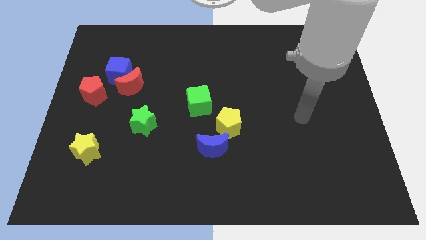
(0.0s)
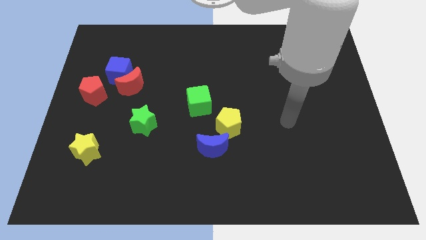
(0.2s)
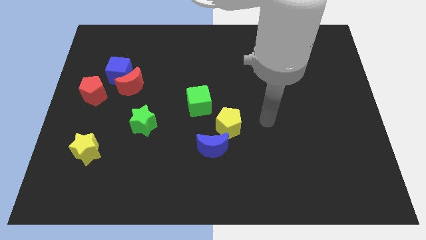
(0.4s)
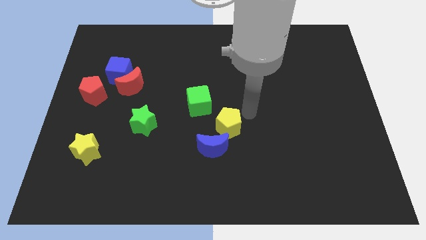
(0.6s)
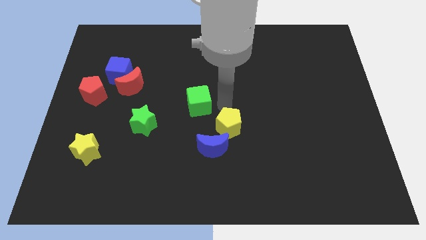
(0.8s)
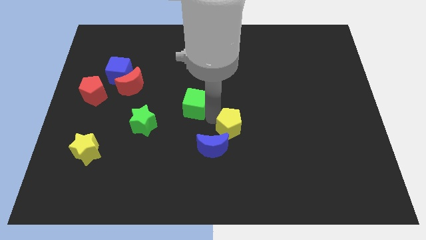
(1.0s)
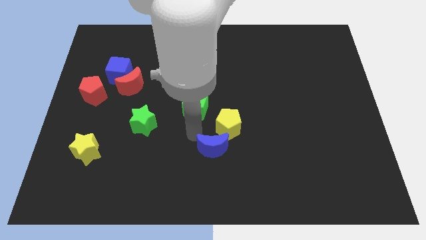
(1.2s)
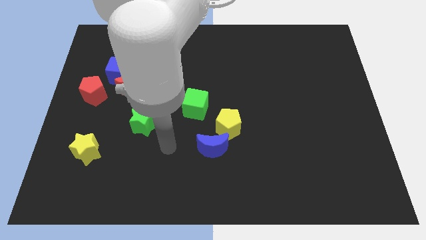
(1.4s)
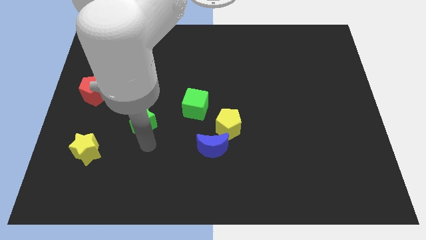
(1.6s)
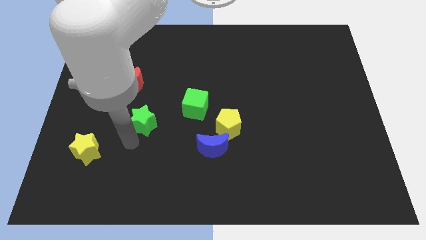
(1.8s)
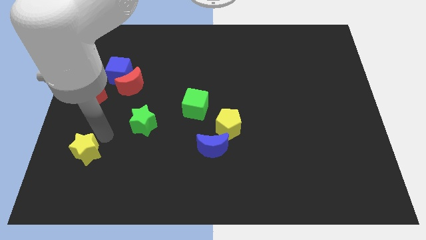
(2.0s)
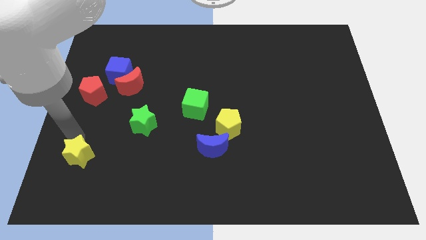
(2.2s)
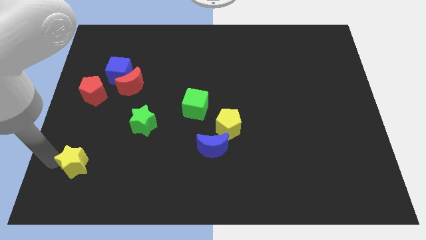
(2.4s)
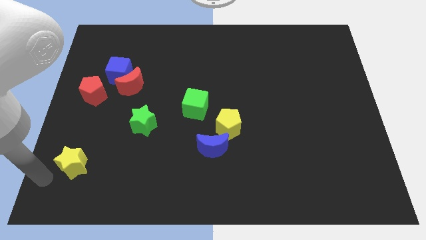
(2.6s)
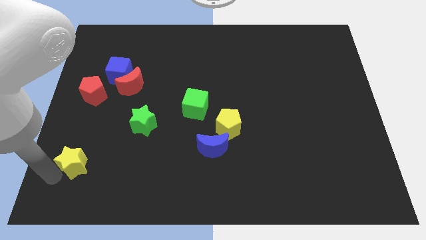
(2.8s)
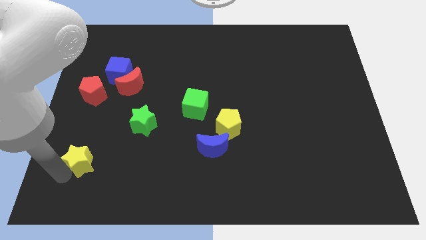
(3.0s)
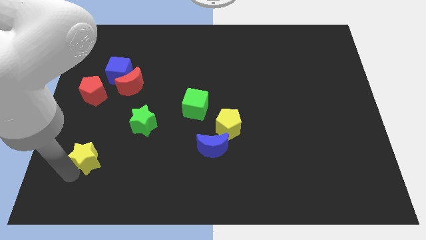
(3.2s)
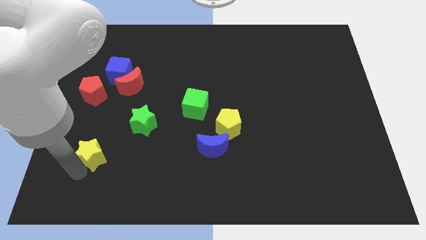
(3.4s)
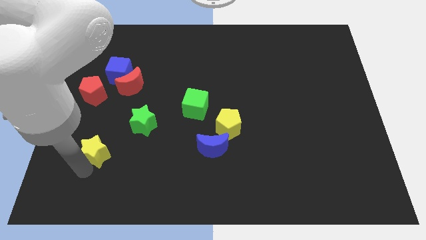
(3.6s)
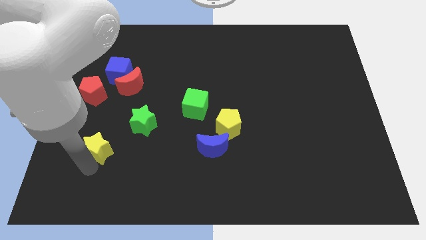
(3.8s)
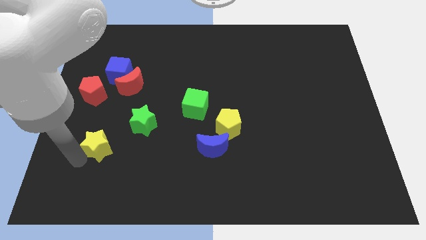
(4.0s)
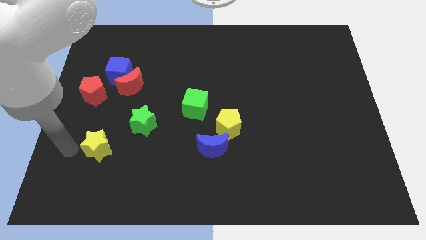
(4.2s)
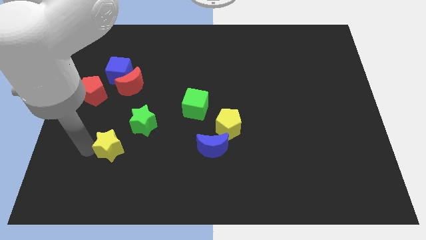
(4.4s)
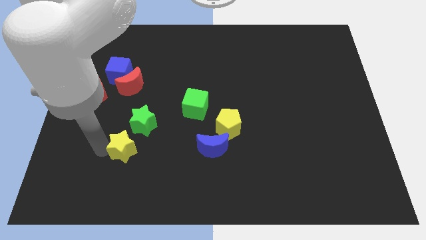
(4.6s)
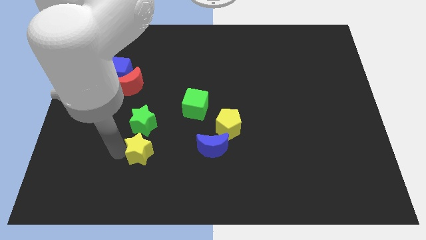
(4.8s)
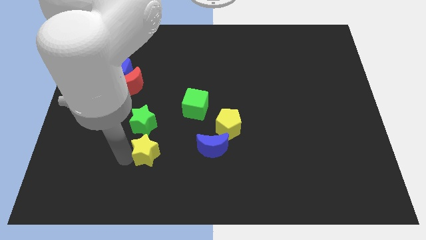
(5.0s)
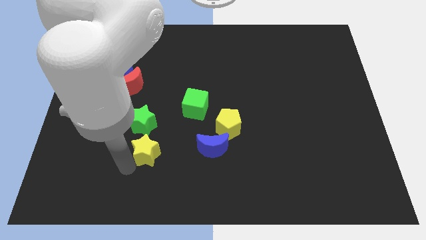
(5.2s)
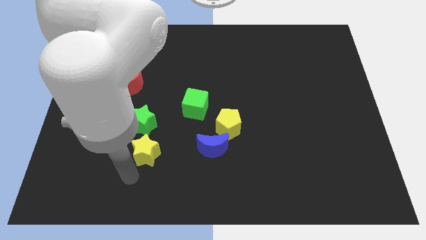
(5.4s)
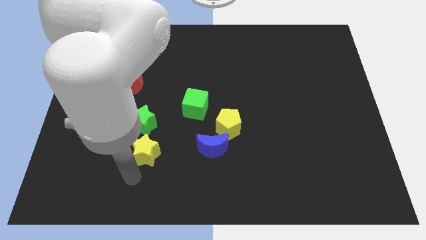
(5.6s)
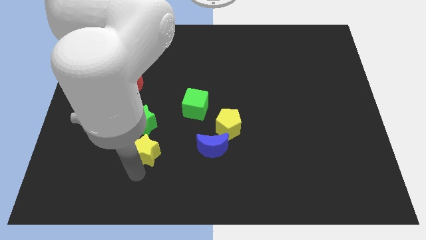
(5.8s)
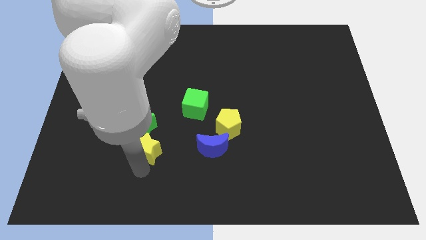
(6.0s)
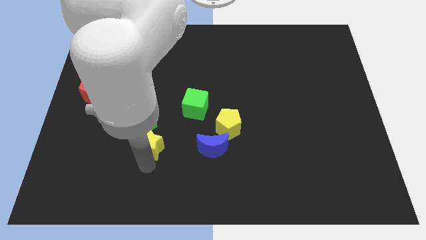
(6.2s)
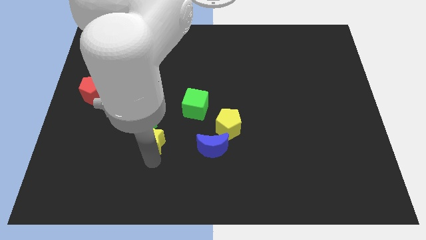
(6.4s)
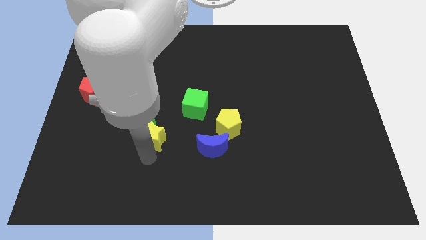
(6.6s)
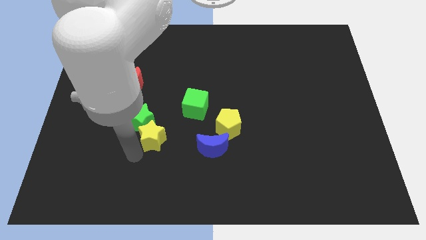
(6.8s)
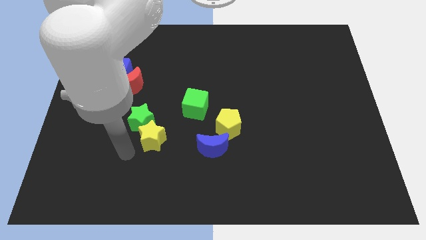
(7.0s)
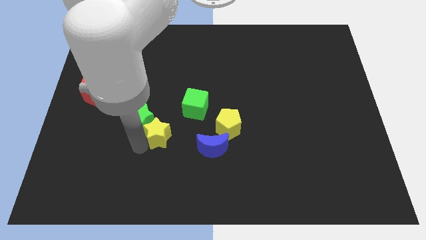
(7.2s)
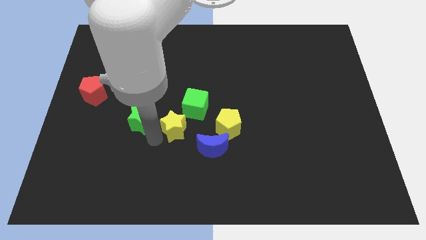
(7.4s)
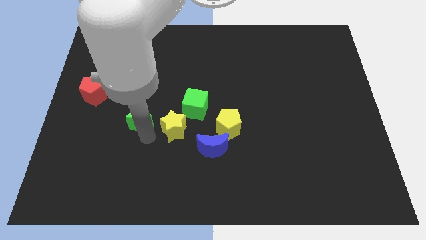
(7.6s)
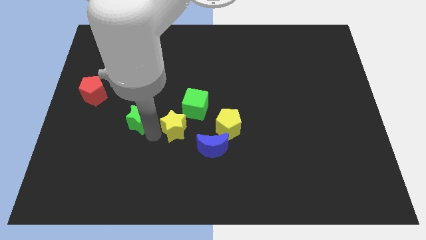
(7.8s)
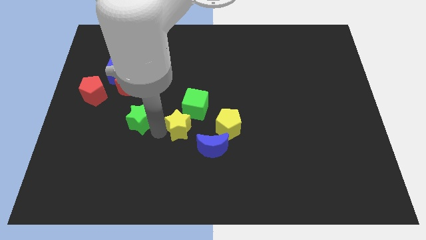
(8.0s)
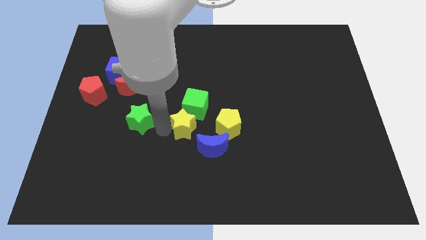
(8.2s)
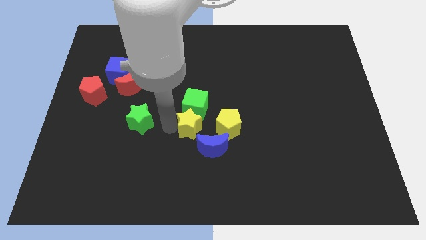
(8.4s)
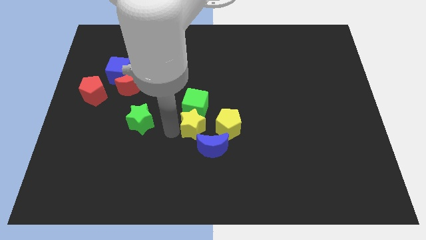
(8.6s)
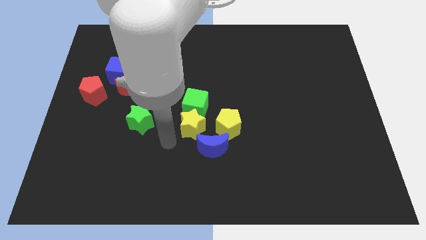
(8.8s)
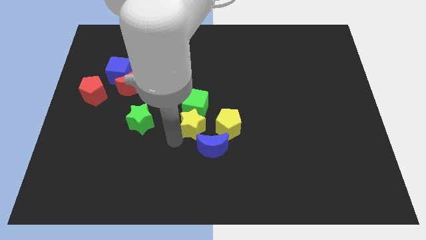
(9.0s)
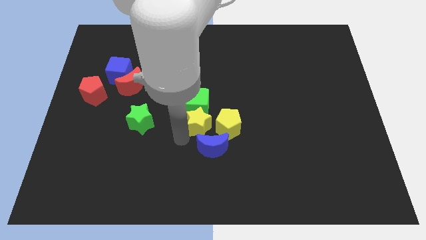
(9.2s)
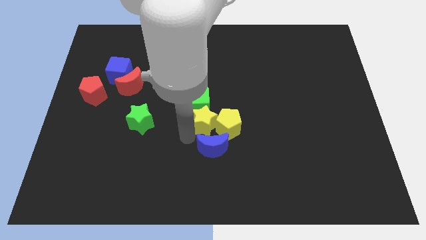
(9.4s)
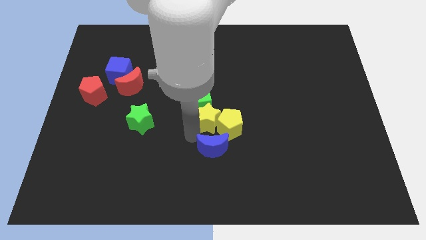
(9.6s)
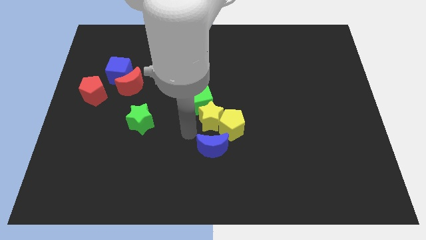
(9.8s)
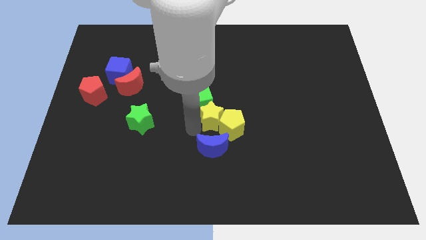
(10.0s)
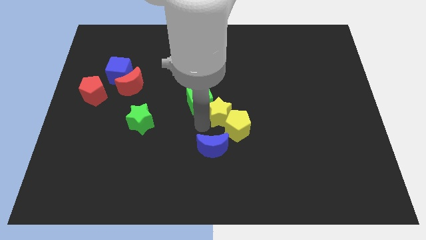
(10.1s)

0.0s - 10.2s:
slide the yellow star to the top right of the blue moon

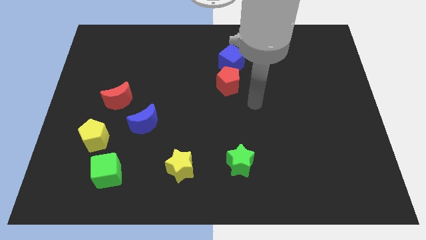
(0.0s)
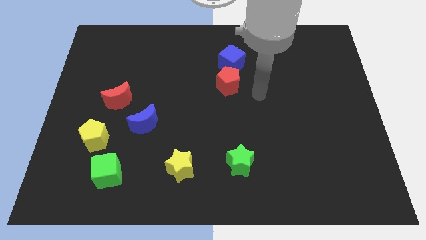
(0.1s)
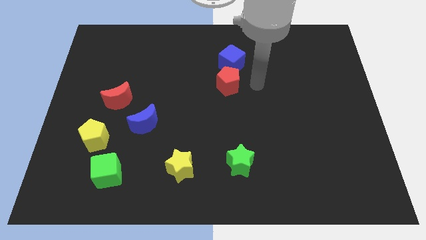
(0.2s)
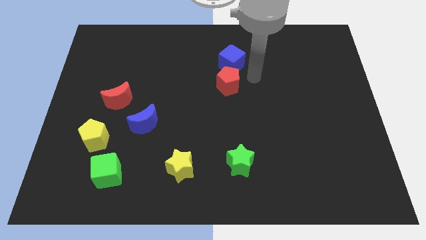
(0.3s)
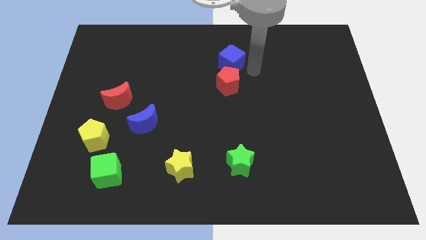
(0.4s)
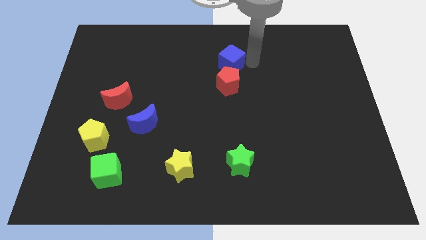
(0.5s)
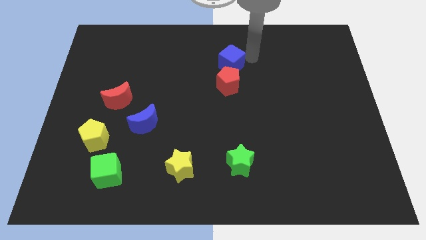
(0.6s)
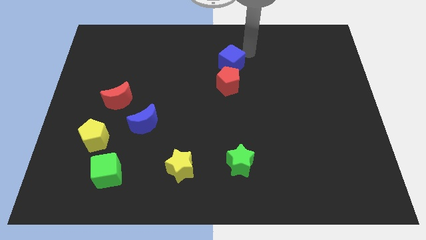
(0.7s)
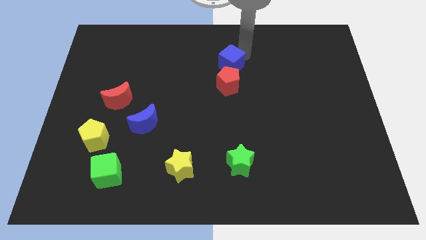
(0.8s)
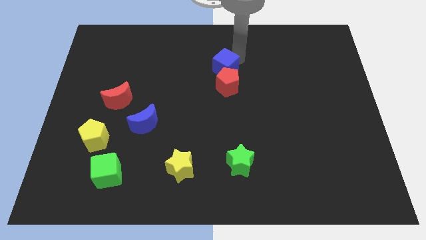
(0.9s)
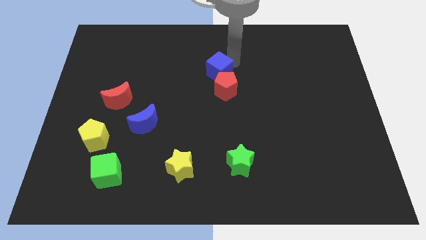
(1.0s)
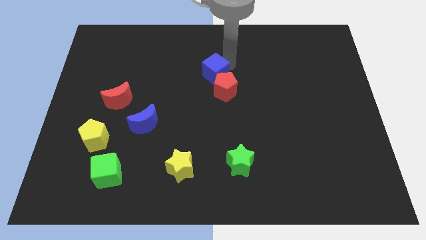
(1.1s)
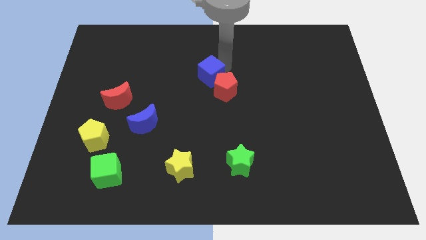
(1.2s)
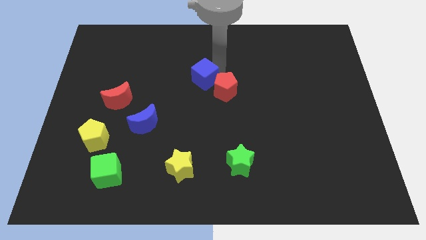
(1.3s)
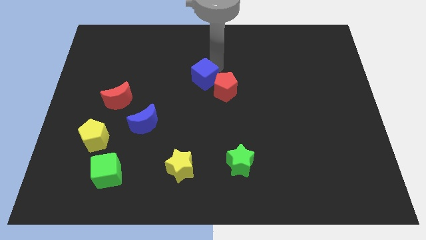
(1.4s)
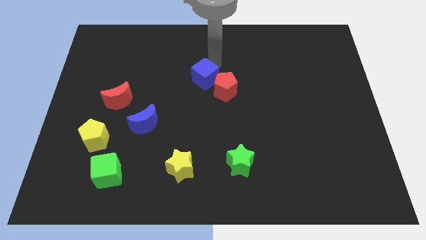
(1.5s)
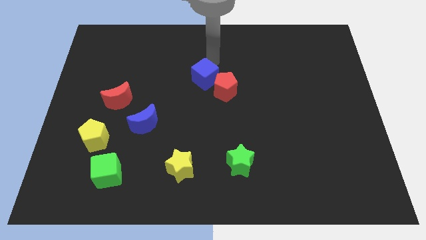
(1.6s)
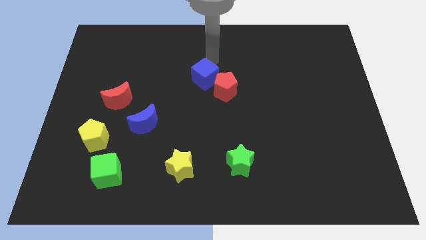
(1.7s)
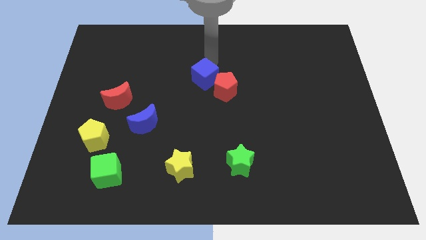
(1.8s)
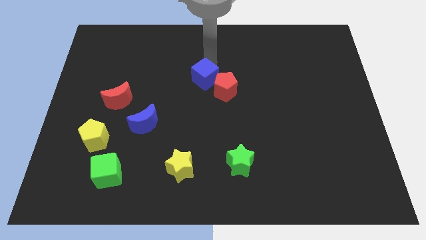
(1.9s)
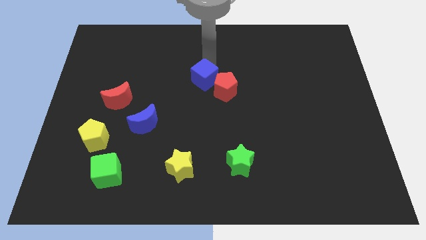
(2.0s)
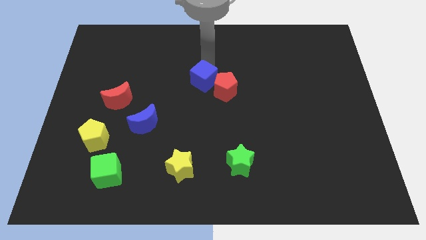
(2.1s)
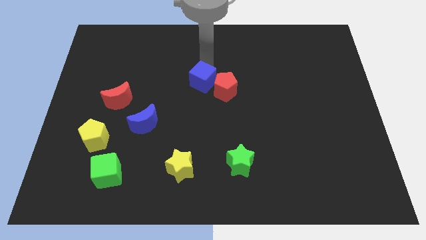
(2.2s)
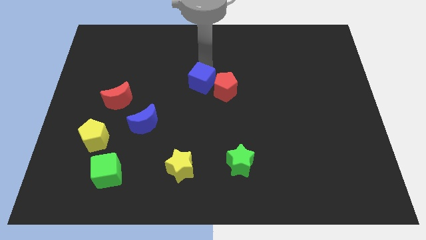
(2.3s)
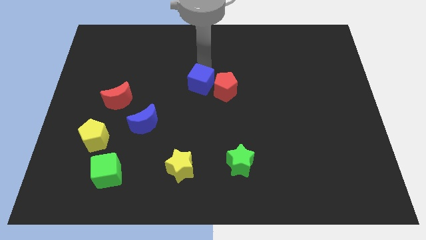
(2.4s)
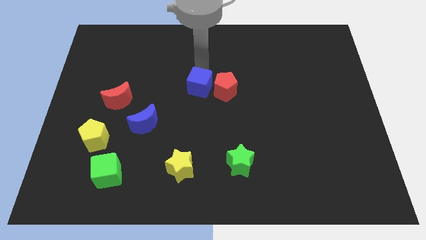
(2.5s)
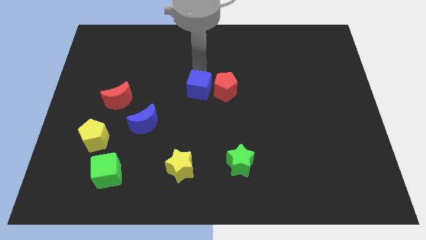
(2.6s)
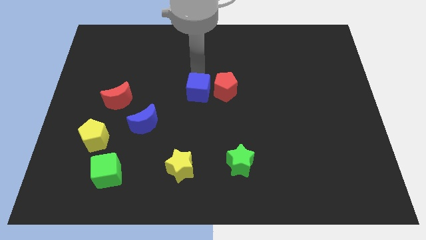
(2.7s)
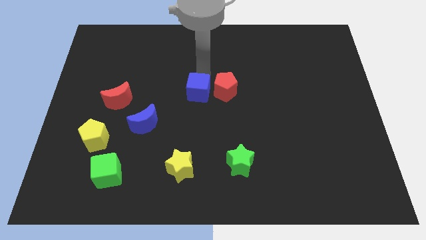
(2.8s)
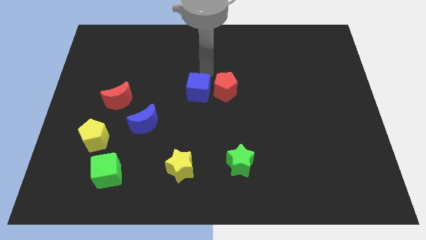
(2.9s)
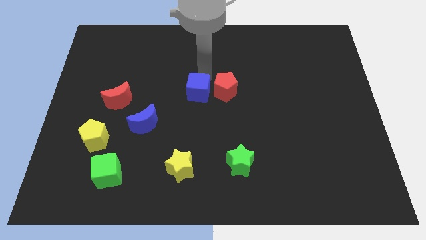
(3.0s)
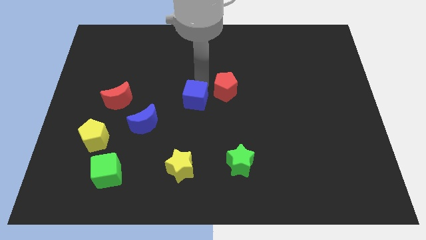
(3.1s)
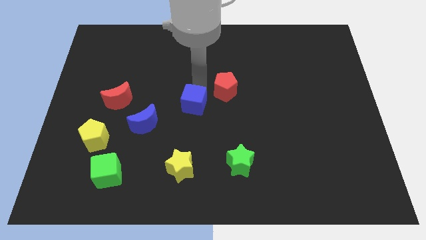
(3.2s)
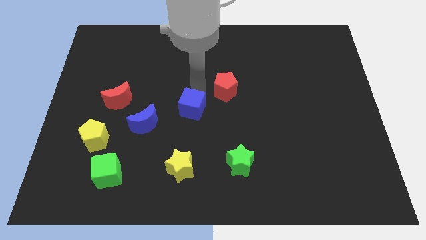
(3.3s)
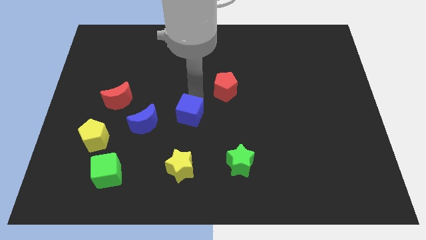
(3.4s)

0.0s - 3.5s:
push the blue cube to the top of the yellow star
